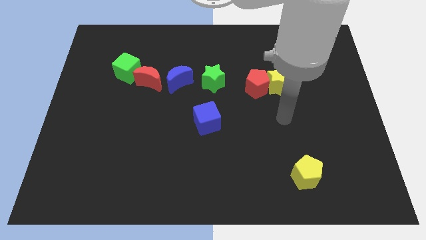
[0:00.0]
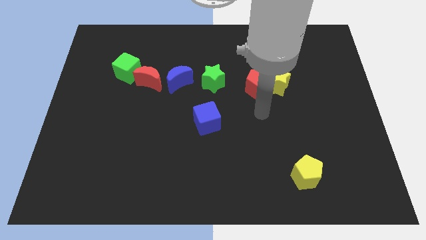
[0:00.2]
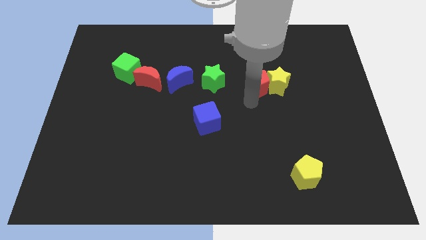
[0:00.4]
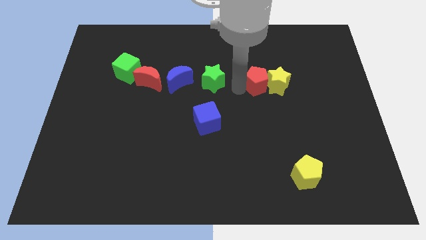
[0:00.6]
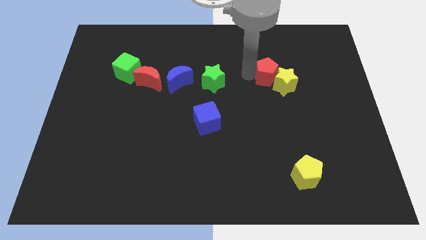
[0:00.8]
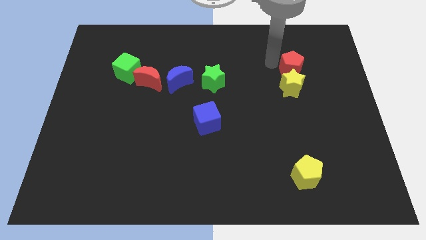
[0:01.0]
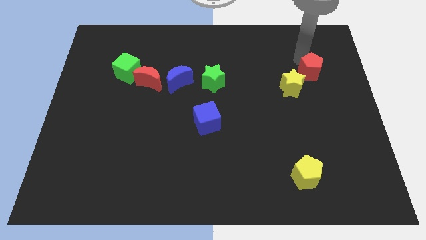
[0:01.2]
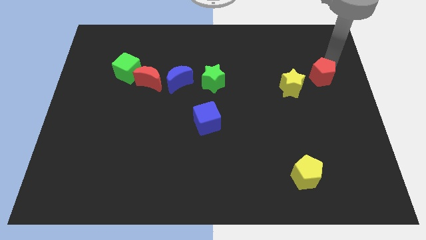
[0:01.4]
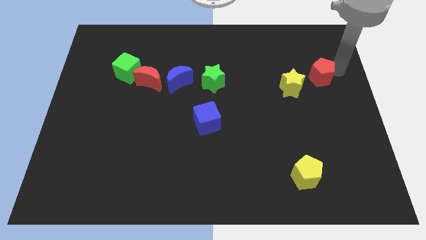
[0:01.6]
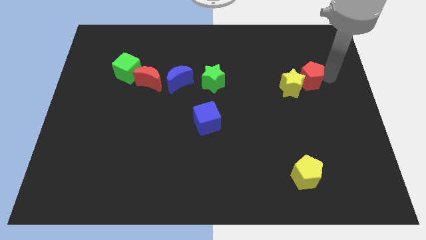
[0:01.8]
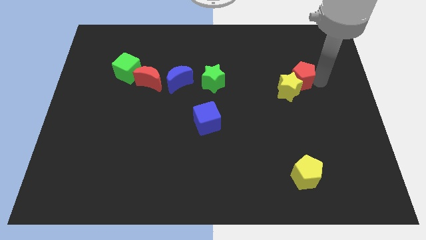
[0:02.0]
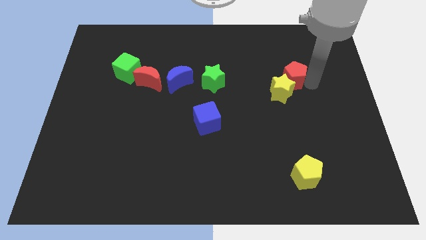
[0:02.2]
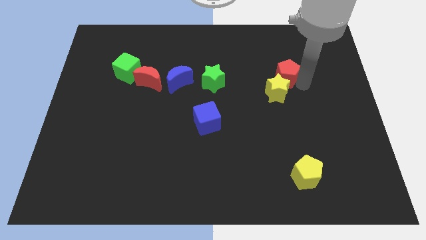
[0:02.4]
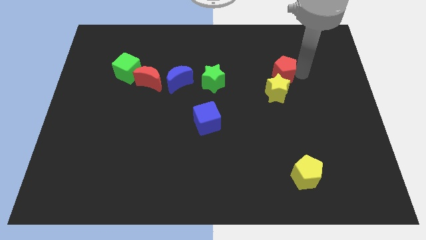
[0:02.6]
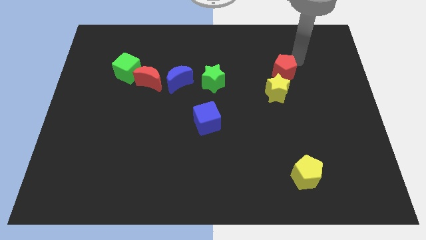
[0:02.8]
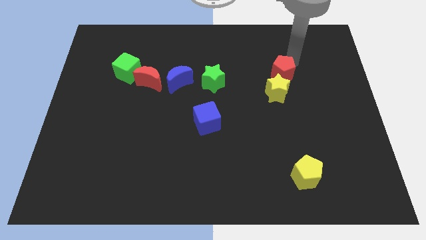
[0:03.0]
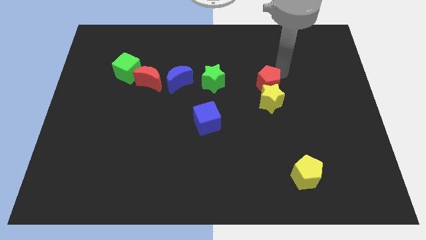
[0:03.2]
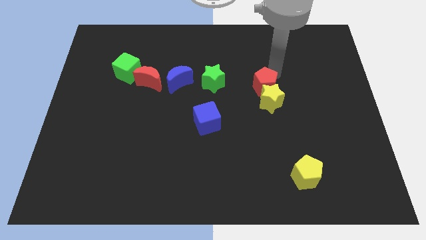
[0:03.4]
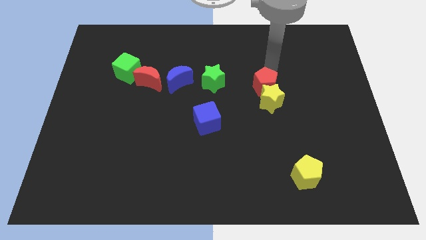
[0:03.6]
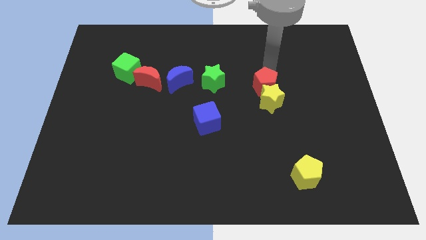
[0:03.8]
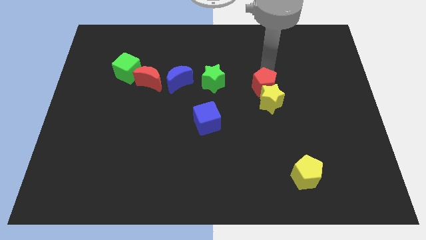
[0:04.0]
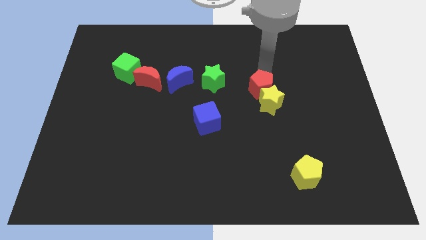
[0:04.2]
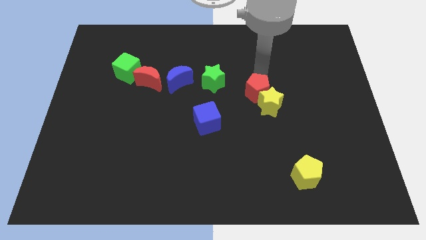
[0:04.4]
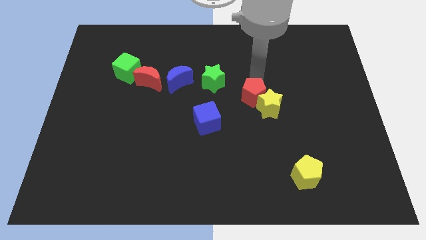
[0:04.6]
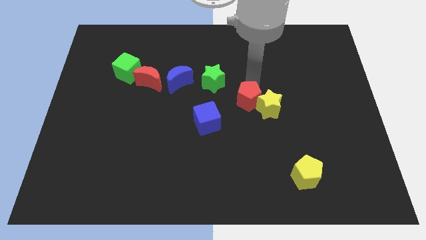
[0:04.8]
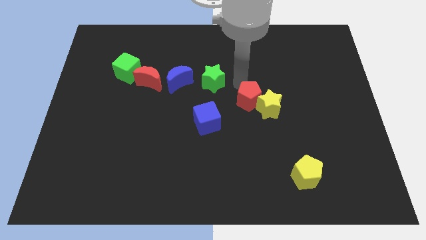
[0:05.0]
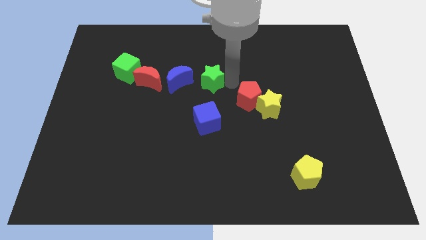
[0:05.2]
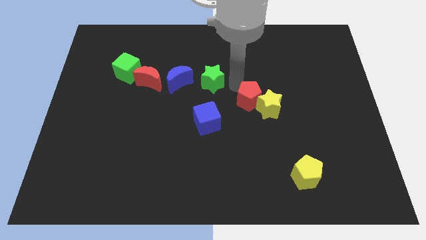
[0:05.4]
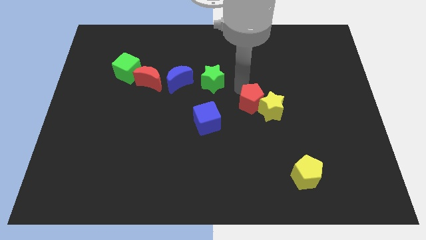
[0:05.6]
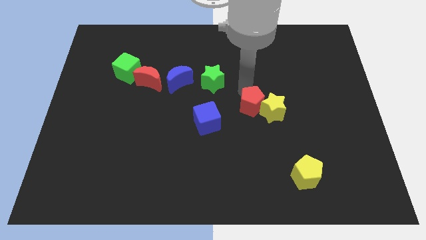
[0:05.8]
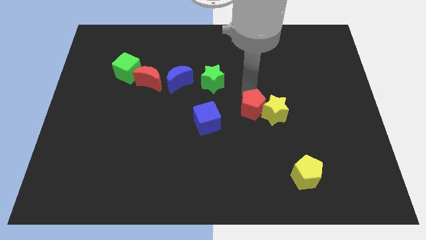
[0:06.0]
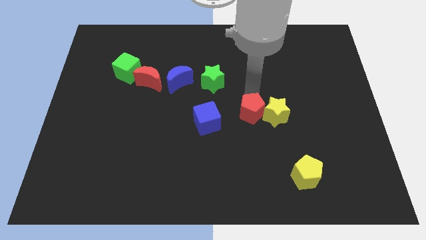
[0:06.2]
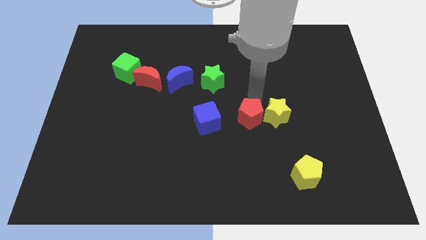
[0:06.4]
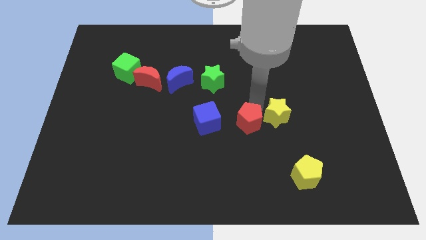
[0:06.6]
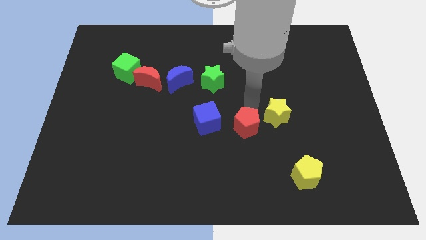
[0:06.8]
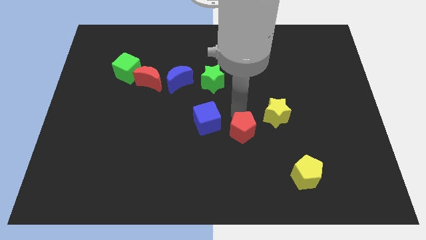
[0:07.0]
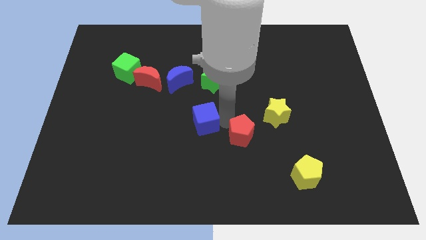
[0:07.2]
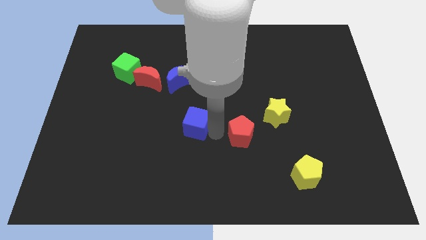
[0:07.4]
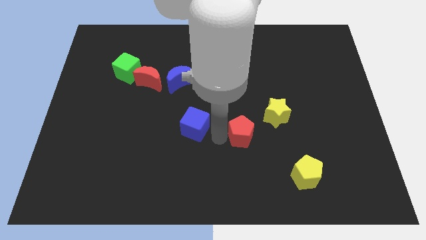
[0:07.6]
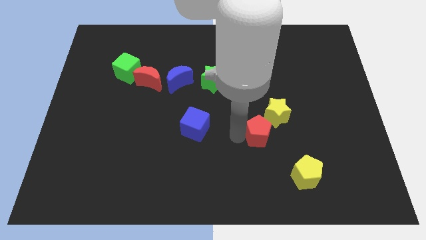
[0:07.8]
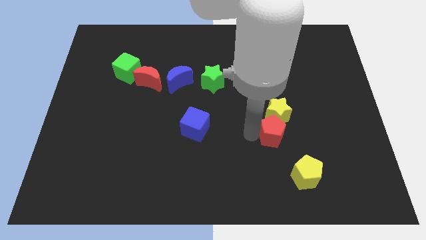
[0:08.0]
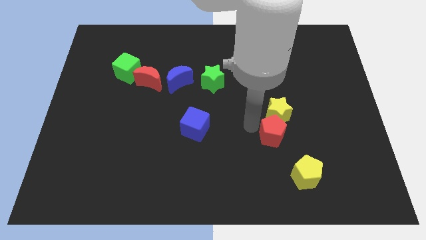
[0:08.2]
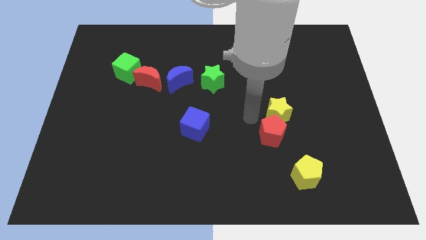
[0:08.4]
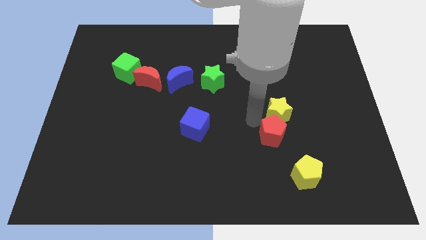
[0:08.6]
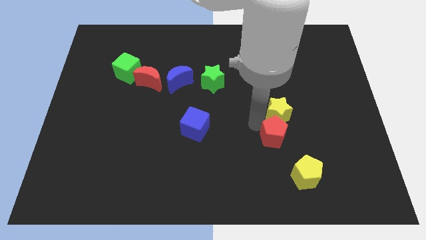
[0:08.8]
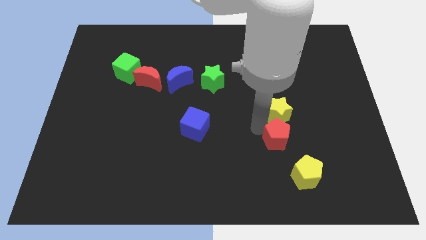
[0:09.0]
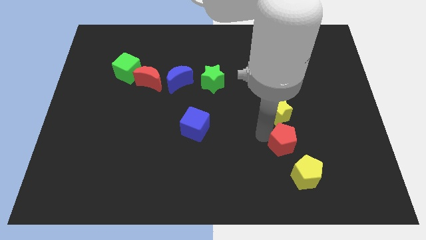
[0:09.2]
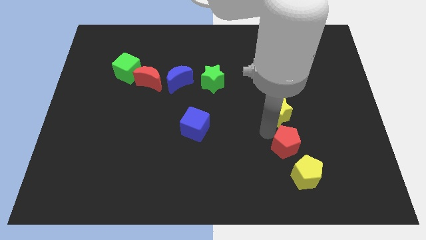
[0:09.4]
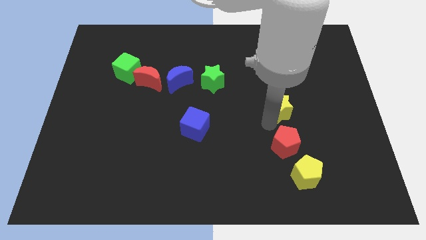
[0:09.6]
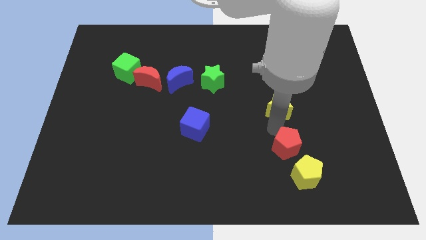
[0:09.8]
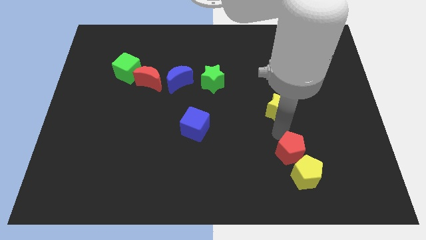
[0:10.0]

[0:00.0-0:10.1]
slide the red pentagon to the yellow pentagon

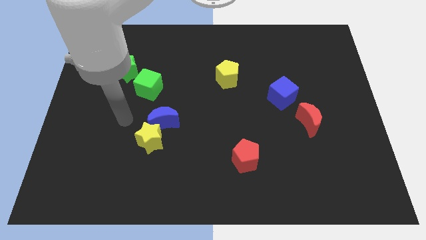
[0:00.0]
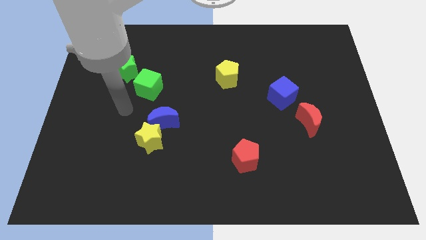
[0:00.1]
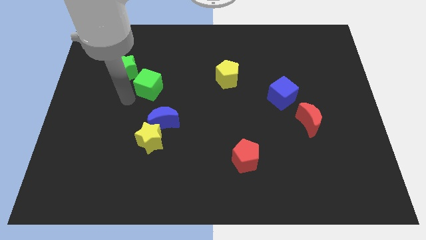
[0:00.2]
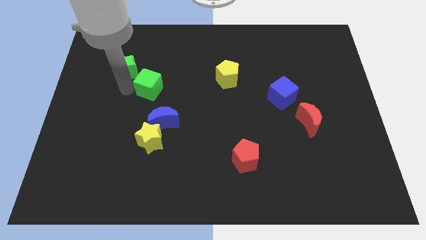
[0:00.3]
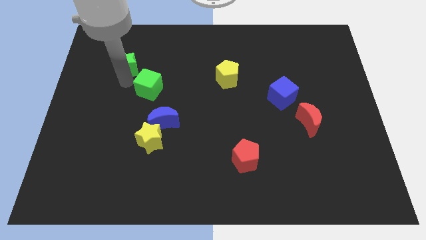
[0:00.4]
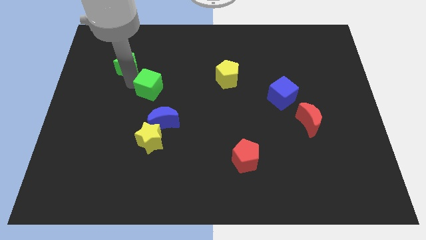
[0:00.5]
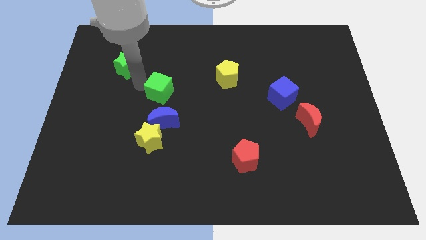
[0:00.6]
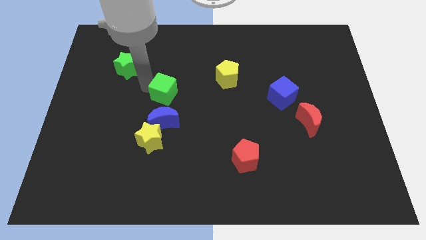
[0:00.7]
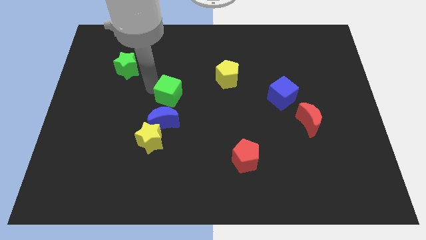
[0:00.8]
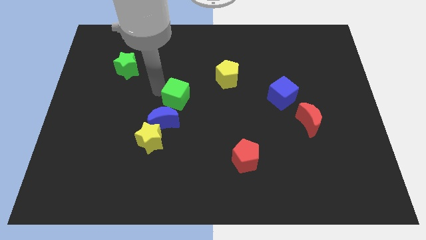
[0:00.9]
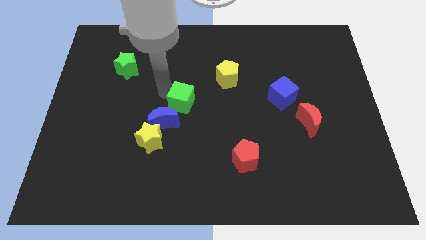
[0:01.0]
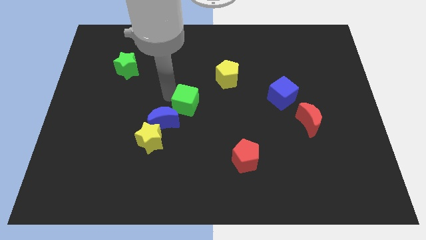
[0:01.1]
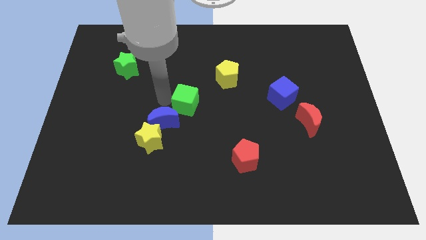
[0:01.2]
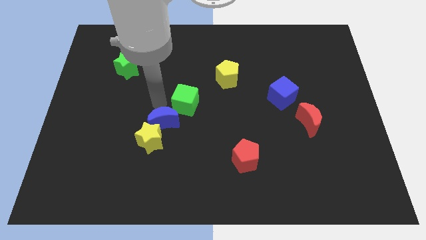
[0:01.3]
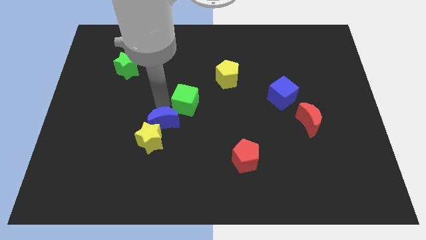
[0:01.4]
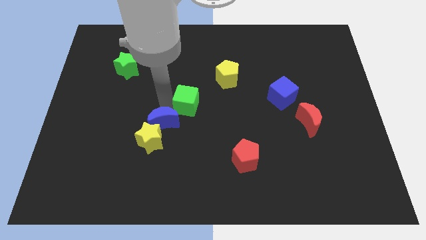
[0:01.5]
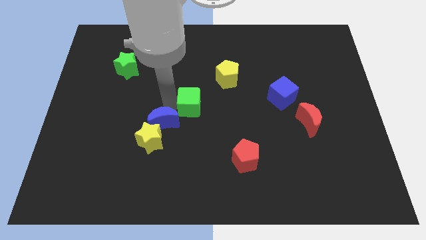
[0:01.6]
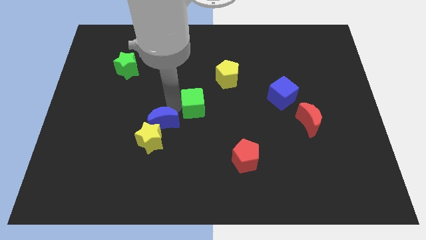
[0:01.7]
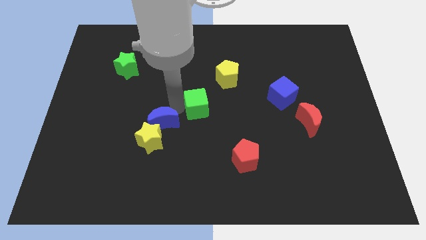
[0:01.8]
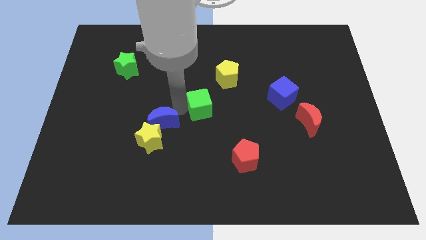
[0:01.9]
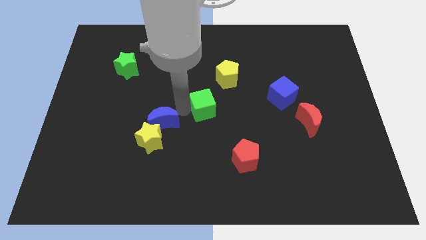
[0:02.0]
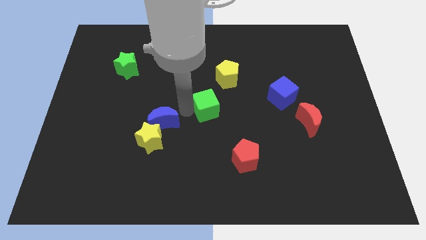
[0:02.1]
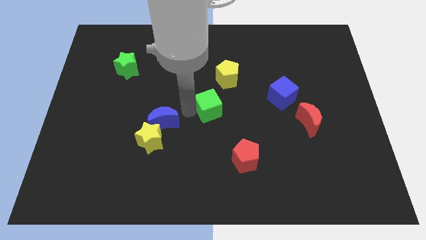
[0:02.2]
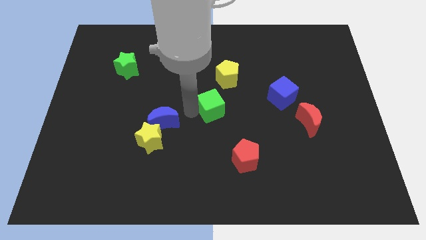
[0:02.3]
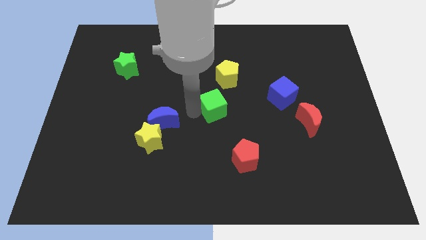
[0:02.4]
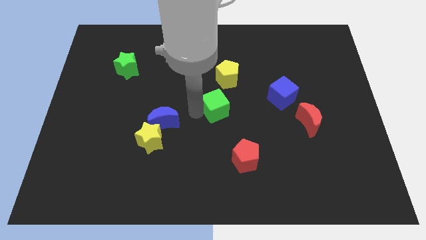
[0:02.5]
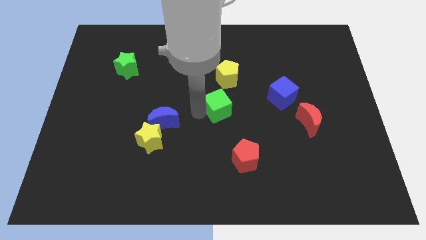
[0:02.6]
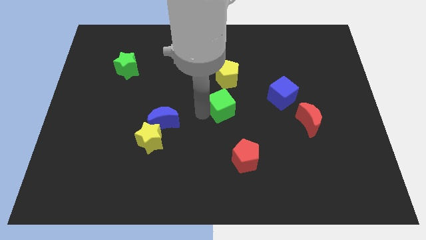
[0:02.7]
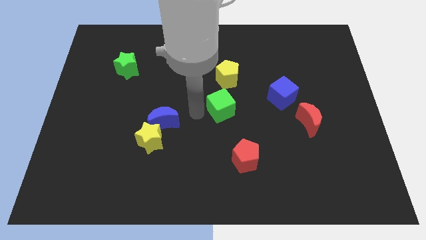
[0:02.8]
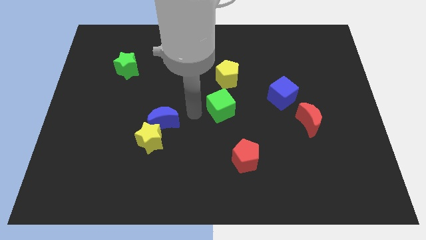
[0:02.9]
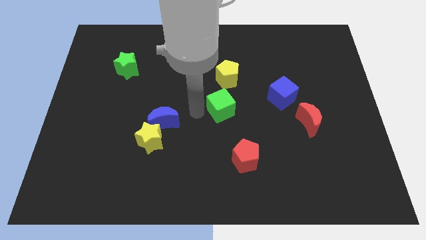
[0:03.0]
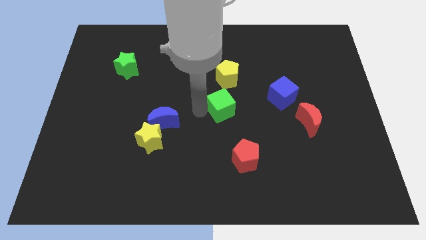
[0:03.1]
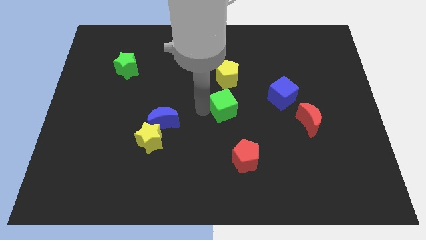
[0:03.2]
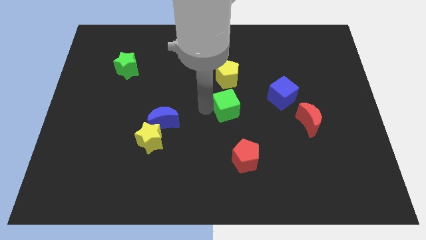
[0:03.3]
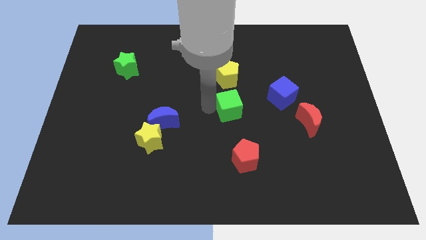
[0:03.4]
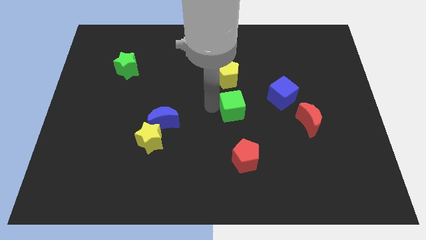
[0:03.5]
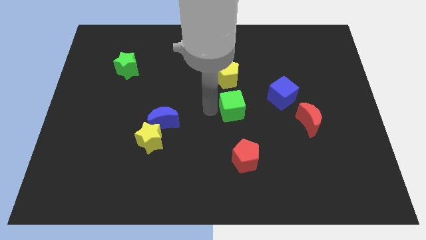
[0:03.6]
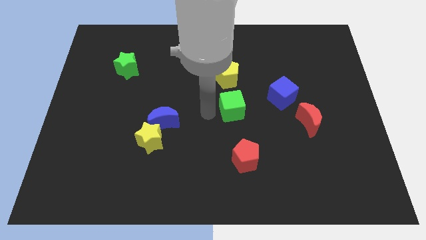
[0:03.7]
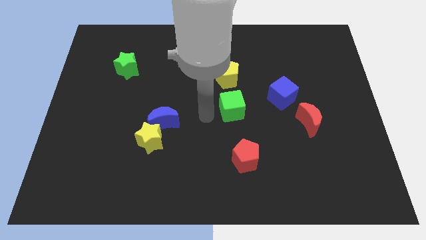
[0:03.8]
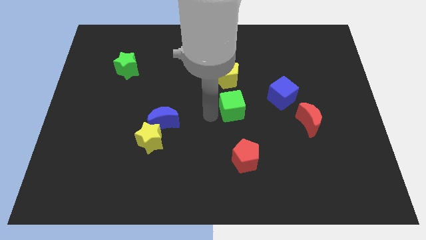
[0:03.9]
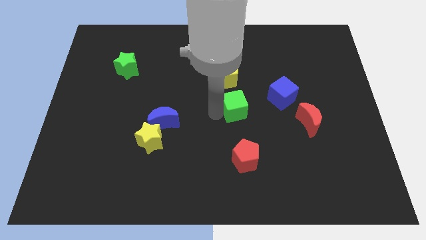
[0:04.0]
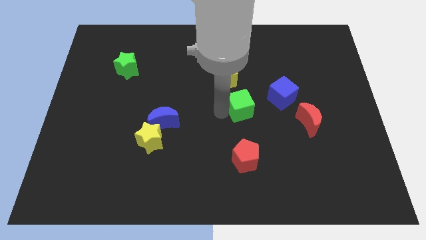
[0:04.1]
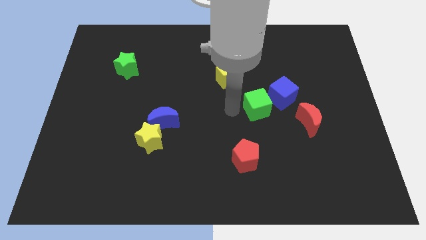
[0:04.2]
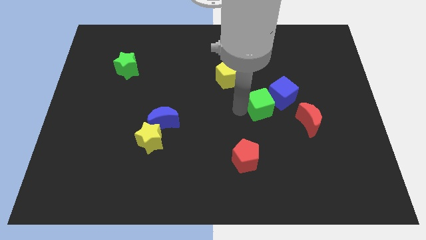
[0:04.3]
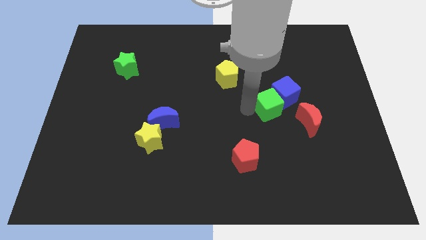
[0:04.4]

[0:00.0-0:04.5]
put the green cube next to the blue cube
